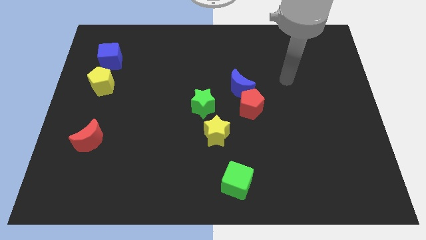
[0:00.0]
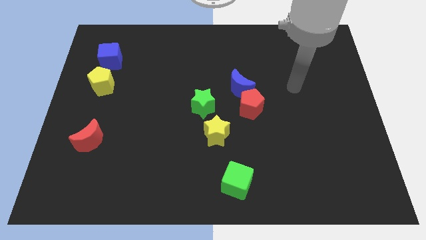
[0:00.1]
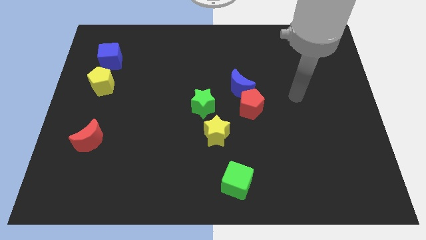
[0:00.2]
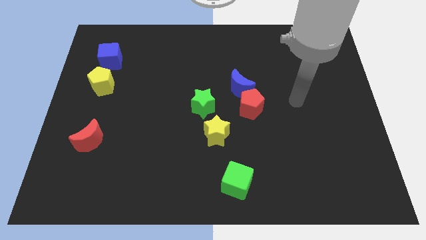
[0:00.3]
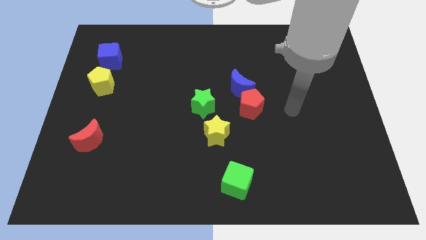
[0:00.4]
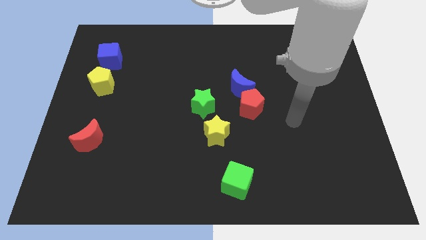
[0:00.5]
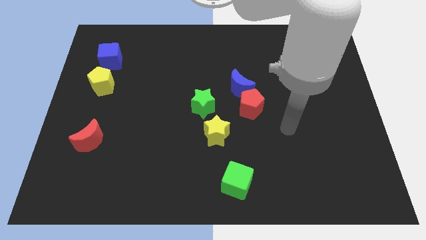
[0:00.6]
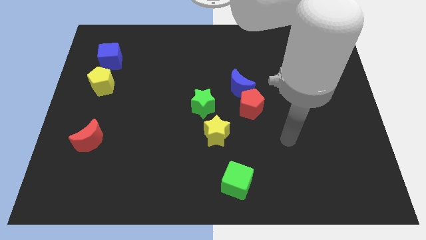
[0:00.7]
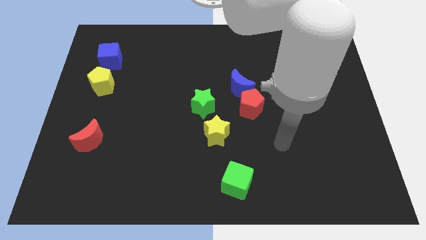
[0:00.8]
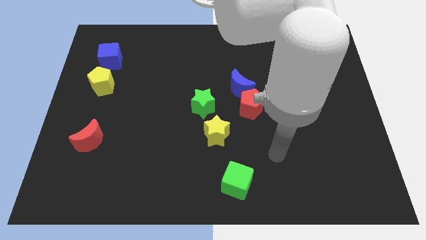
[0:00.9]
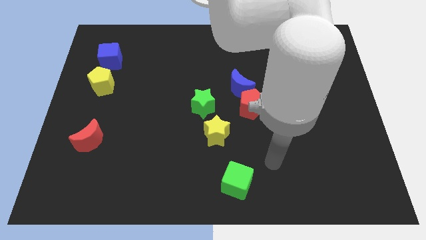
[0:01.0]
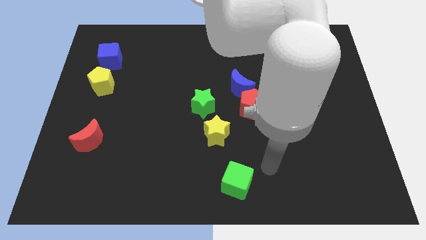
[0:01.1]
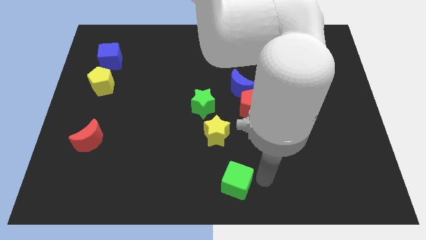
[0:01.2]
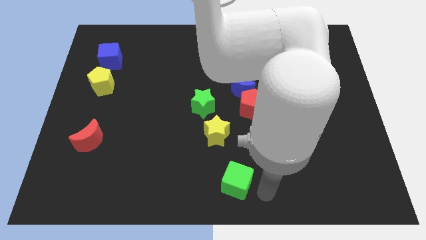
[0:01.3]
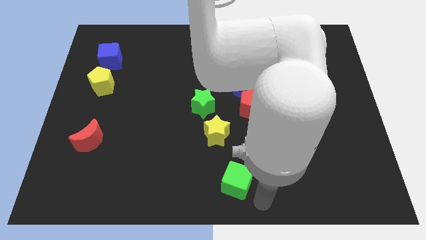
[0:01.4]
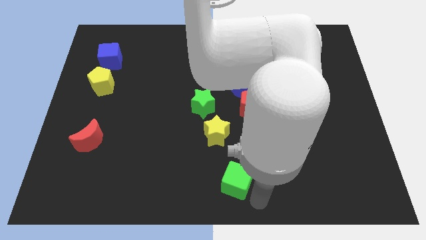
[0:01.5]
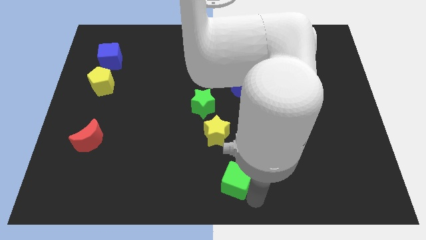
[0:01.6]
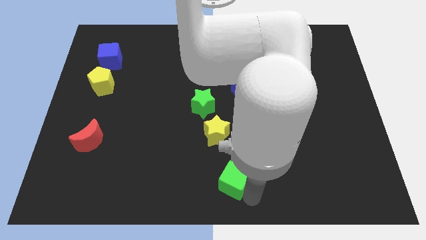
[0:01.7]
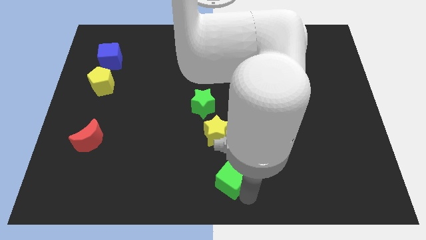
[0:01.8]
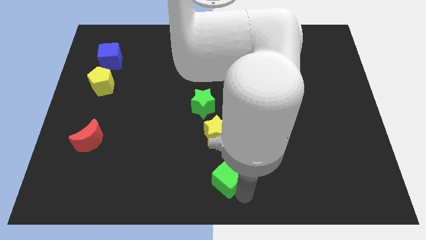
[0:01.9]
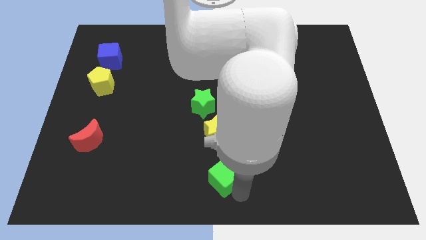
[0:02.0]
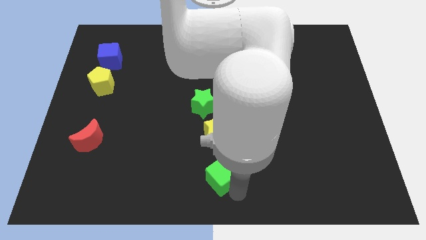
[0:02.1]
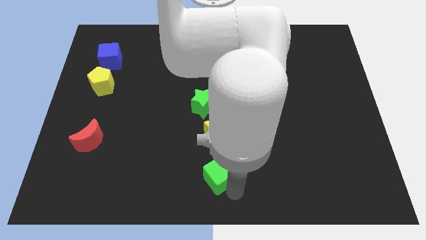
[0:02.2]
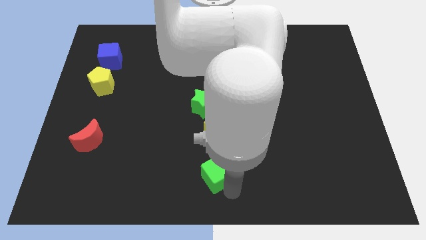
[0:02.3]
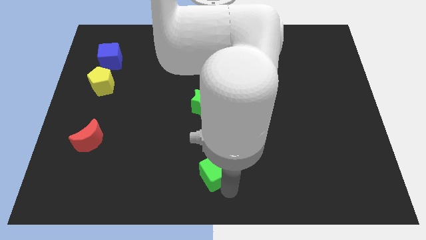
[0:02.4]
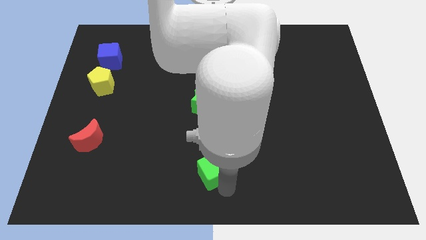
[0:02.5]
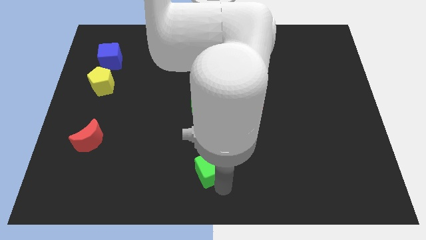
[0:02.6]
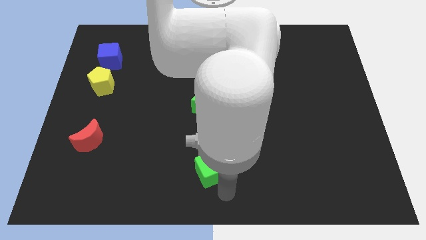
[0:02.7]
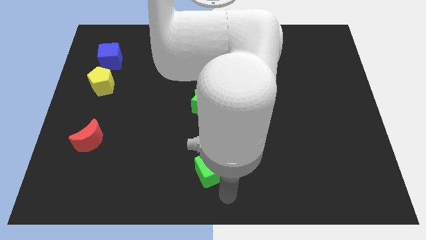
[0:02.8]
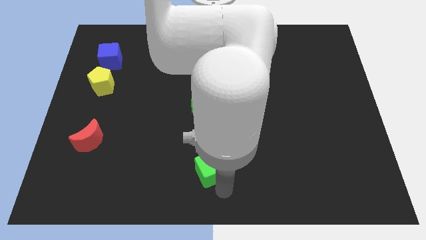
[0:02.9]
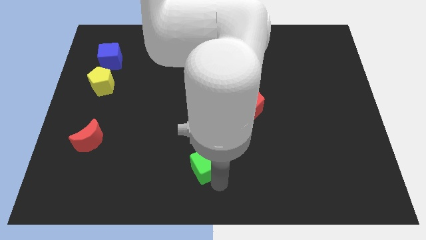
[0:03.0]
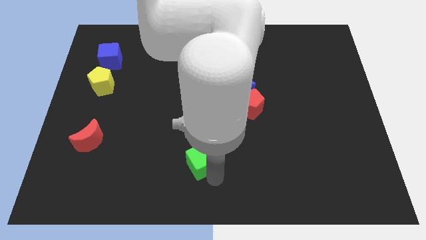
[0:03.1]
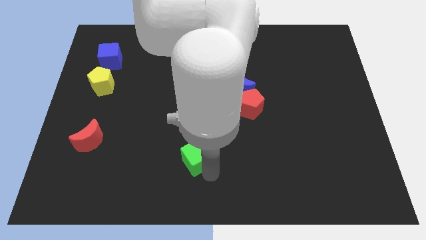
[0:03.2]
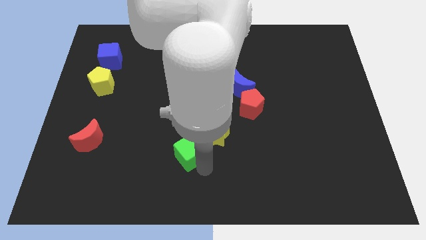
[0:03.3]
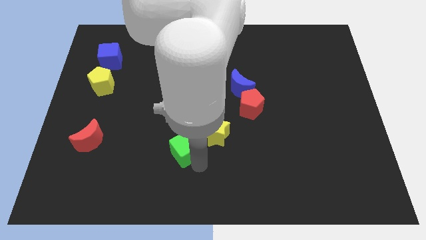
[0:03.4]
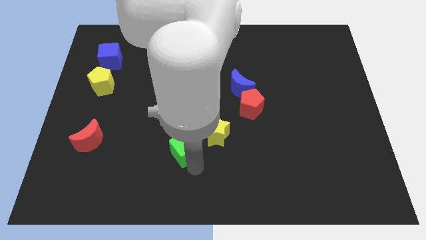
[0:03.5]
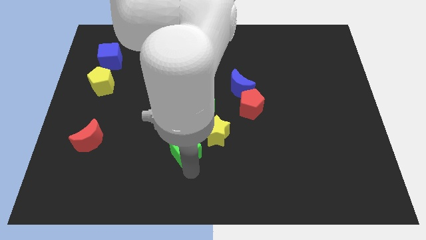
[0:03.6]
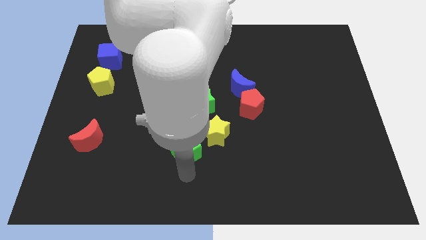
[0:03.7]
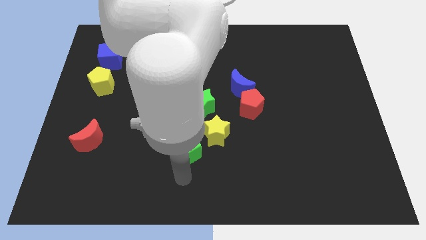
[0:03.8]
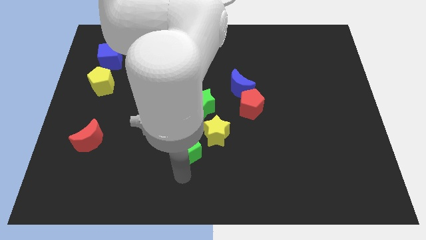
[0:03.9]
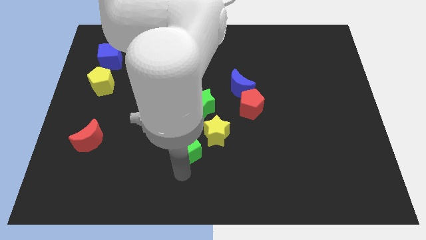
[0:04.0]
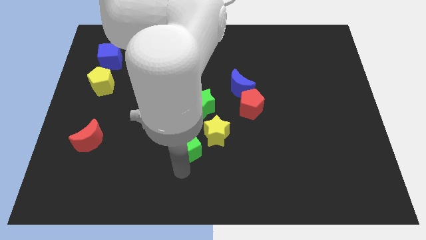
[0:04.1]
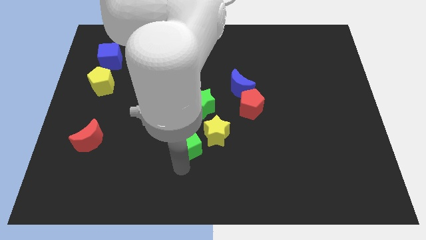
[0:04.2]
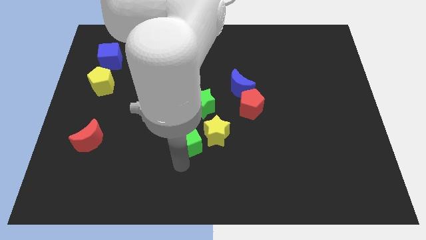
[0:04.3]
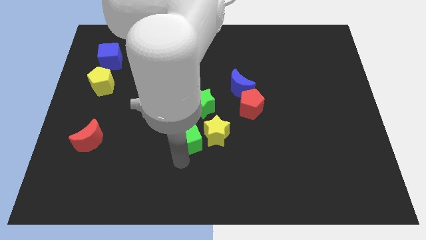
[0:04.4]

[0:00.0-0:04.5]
slide the green cube to the bottom left of the green star

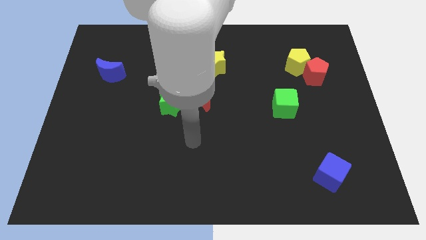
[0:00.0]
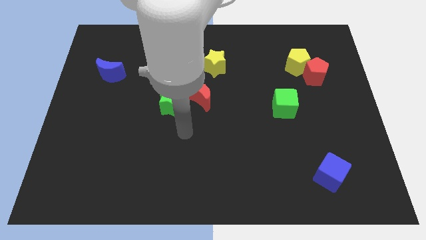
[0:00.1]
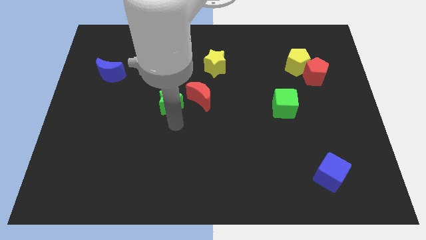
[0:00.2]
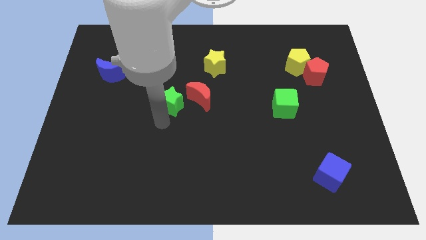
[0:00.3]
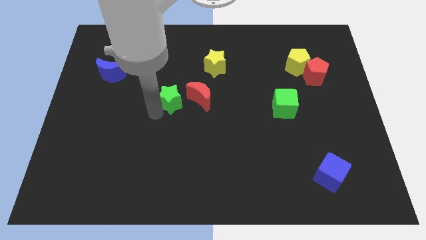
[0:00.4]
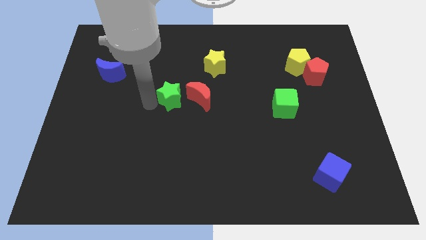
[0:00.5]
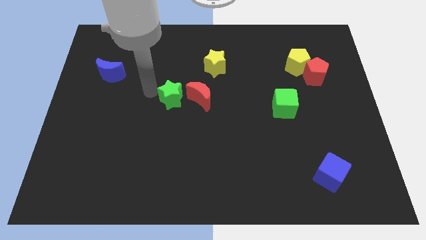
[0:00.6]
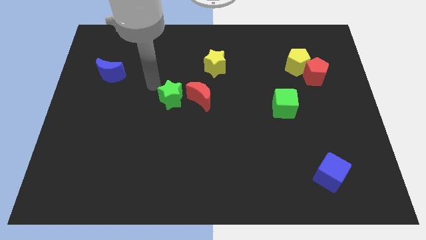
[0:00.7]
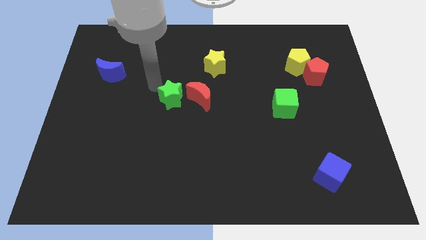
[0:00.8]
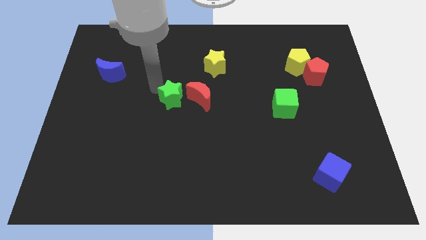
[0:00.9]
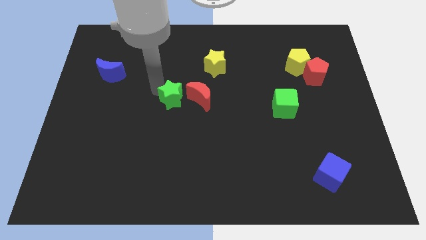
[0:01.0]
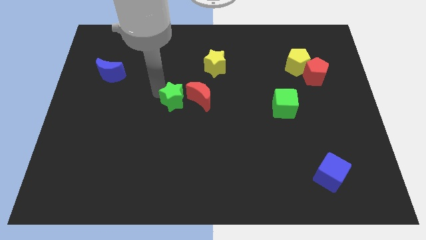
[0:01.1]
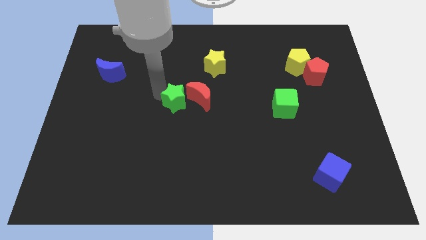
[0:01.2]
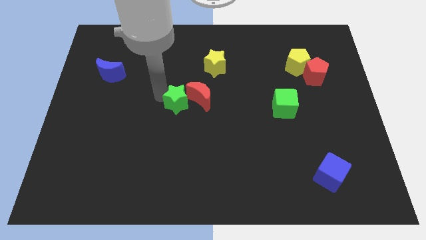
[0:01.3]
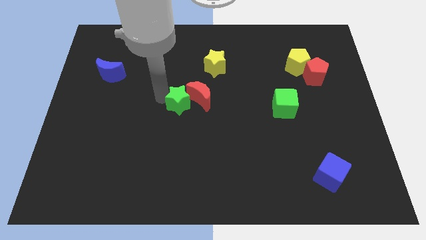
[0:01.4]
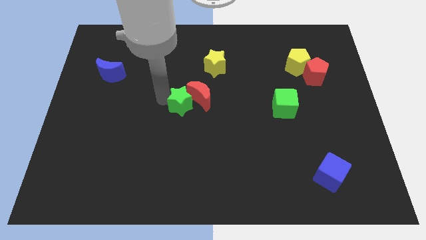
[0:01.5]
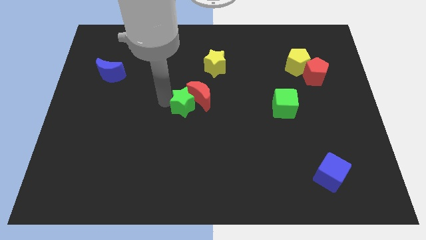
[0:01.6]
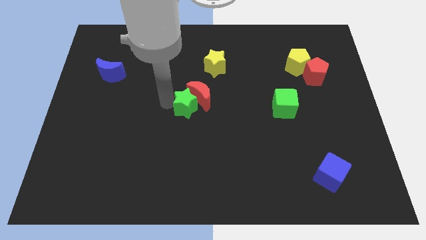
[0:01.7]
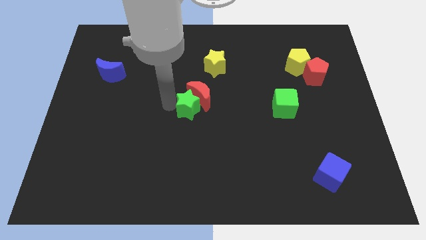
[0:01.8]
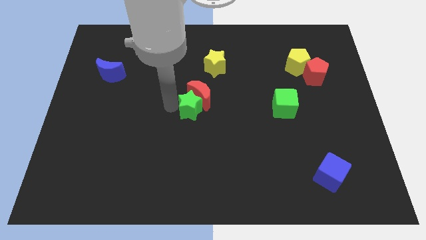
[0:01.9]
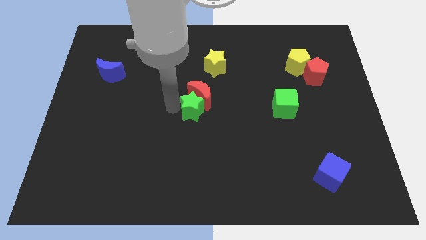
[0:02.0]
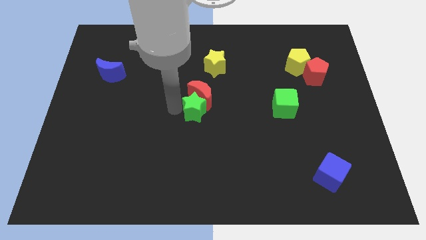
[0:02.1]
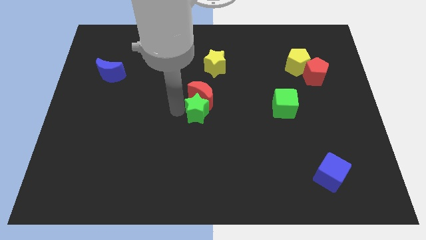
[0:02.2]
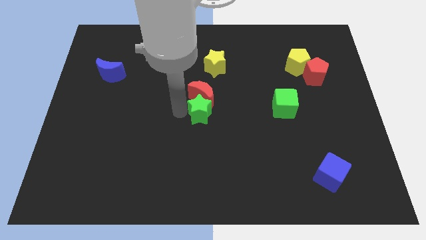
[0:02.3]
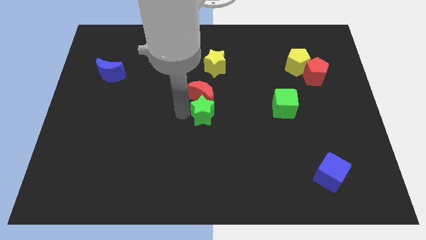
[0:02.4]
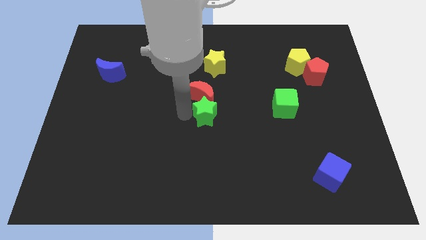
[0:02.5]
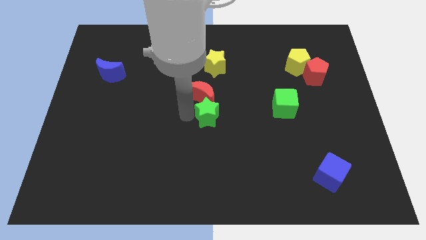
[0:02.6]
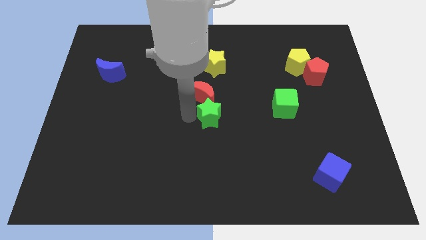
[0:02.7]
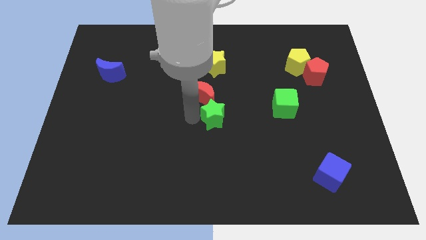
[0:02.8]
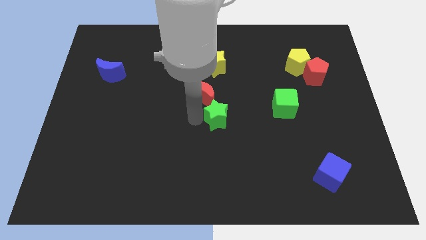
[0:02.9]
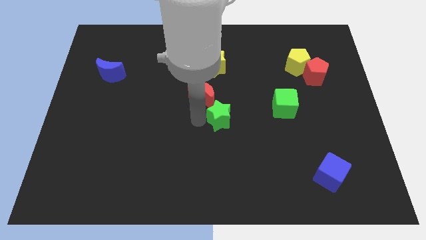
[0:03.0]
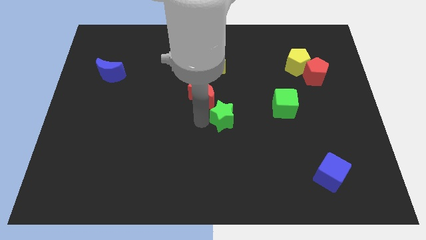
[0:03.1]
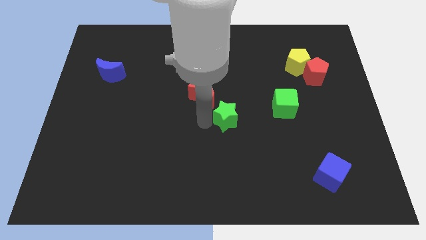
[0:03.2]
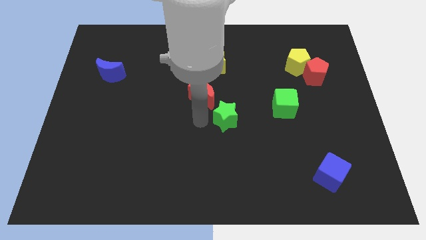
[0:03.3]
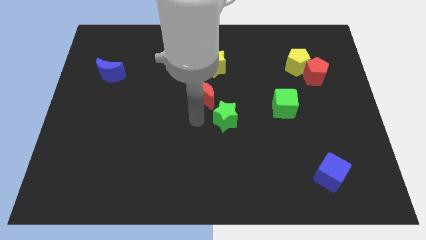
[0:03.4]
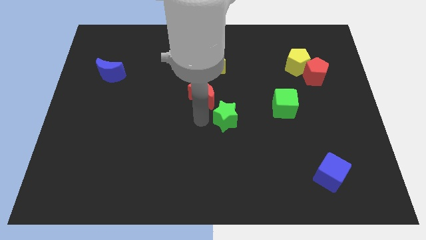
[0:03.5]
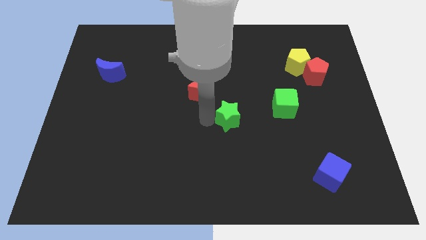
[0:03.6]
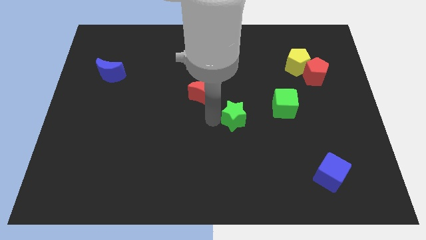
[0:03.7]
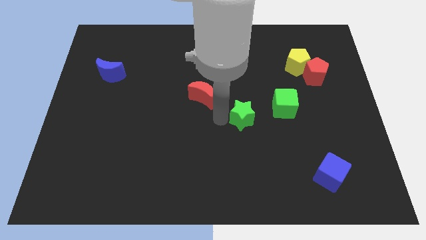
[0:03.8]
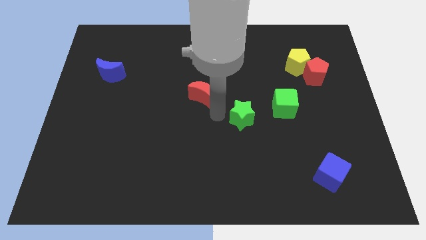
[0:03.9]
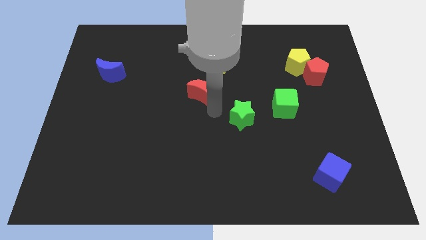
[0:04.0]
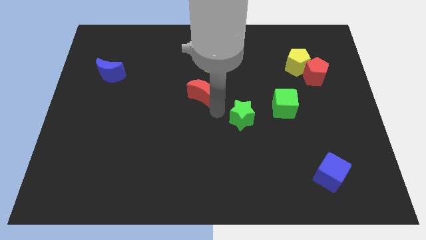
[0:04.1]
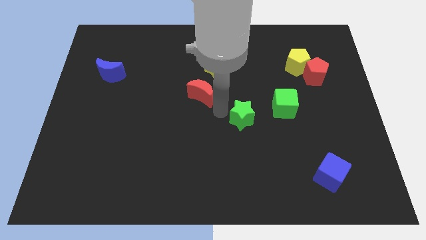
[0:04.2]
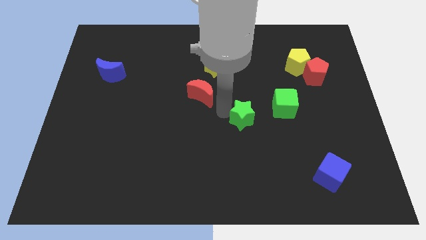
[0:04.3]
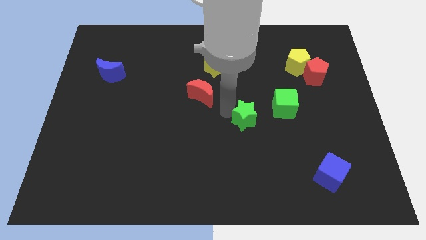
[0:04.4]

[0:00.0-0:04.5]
move the green star to the bottom left of the green cube
